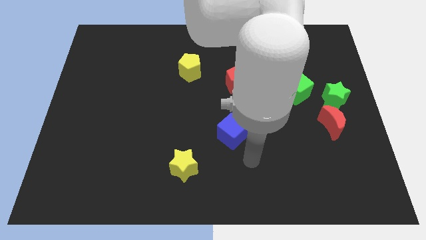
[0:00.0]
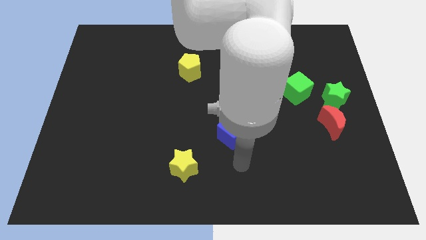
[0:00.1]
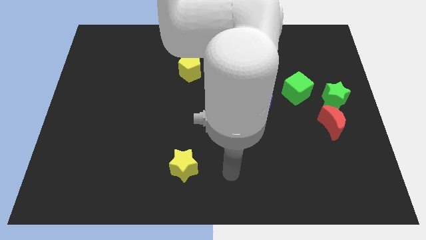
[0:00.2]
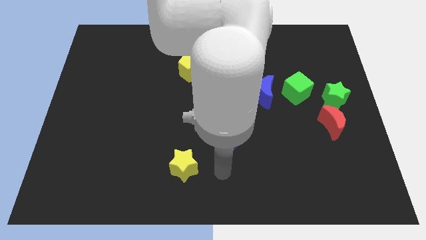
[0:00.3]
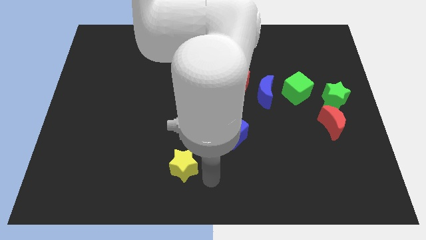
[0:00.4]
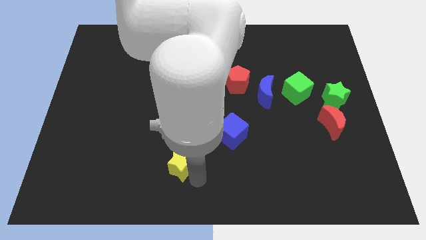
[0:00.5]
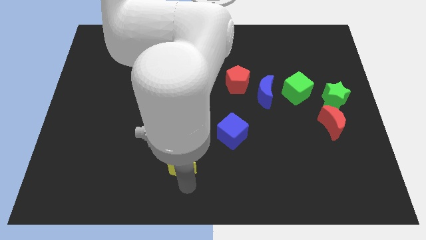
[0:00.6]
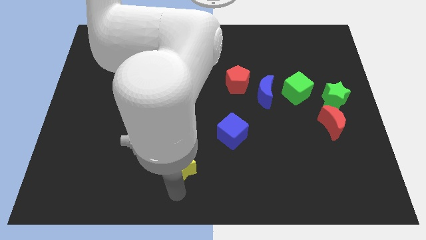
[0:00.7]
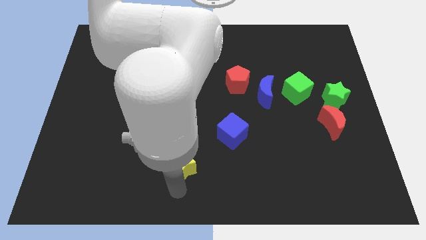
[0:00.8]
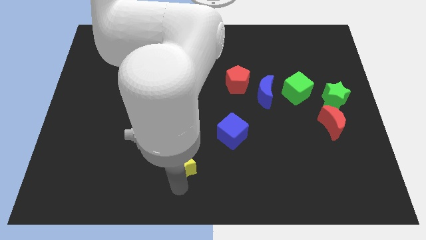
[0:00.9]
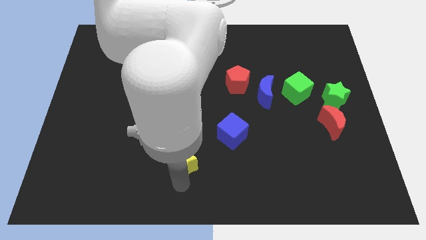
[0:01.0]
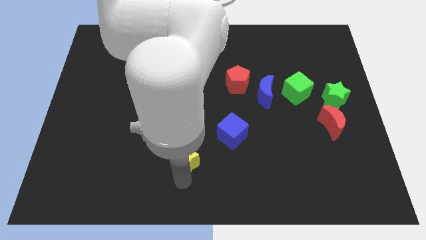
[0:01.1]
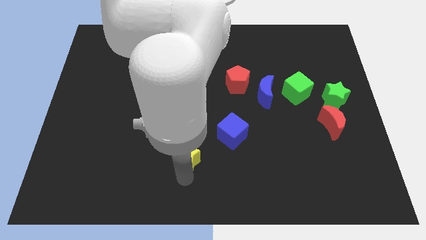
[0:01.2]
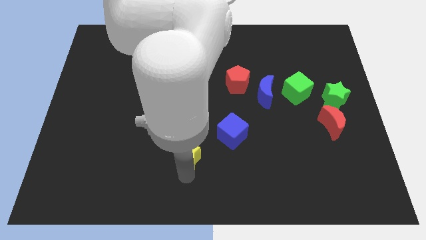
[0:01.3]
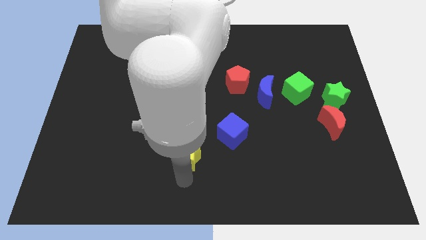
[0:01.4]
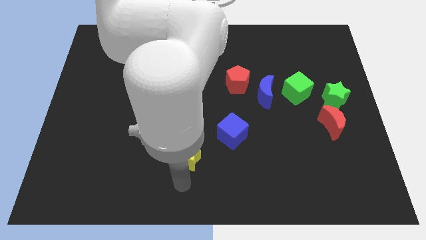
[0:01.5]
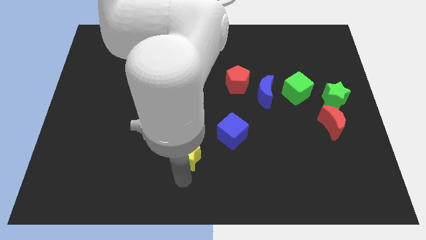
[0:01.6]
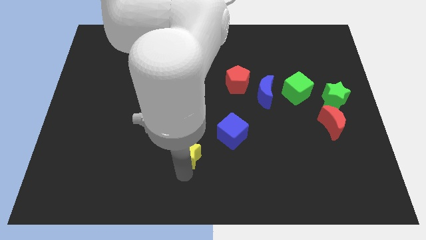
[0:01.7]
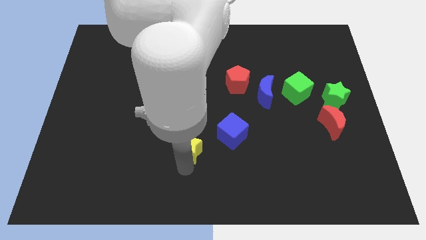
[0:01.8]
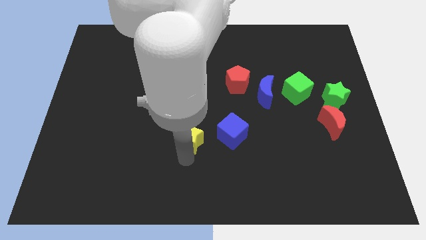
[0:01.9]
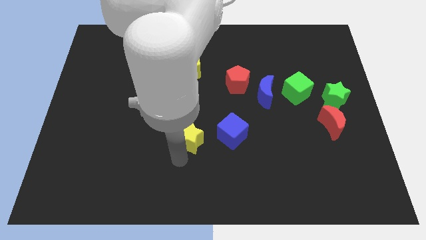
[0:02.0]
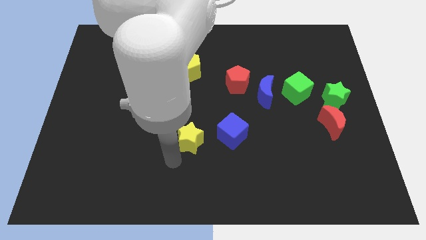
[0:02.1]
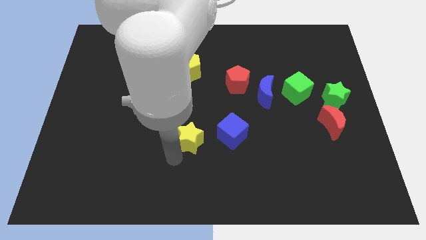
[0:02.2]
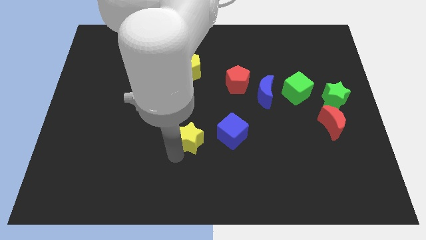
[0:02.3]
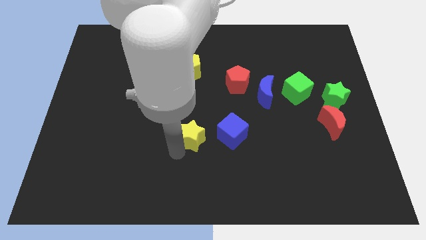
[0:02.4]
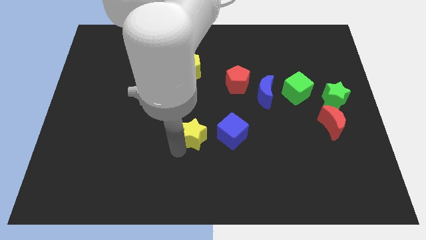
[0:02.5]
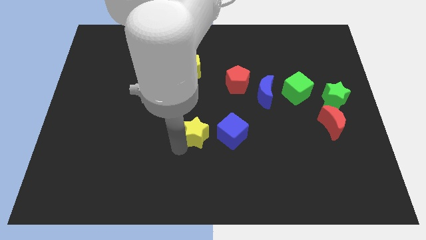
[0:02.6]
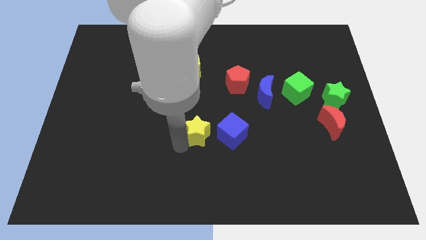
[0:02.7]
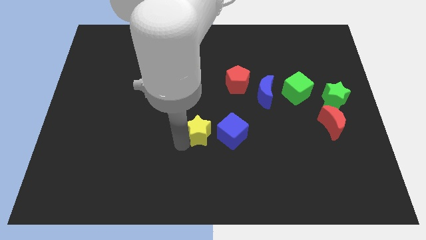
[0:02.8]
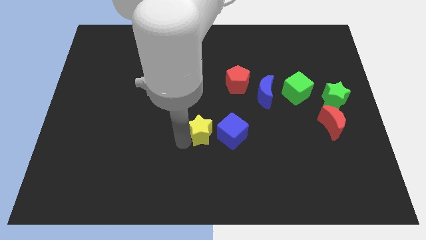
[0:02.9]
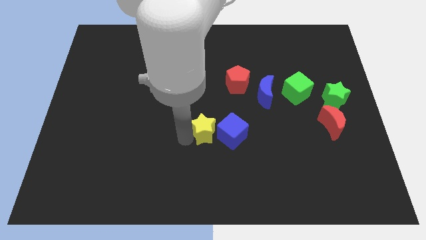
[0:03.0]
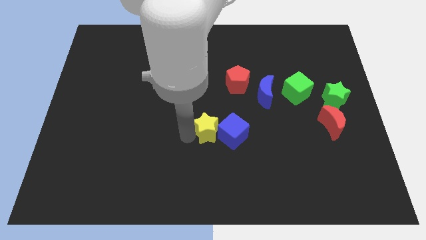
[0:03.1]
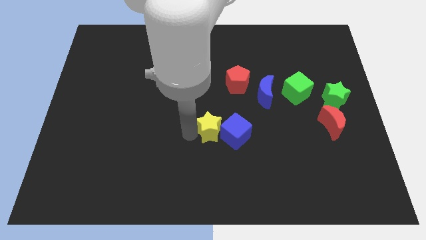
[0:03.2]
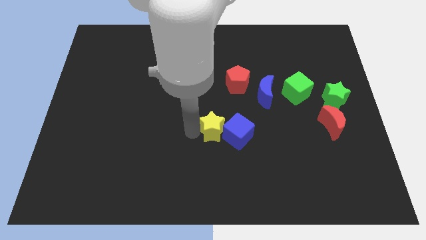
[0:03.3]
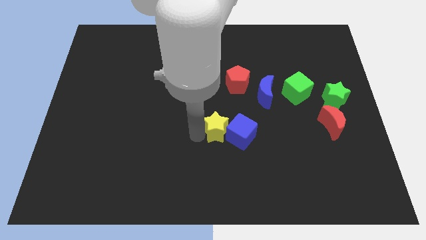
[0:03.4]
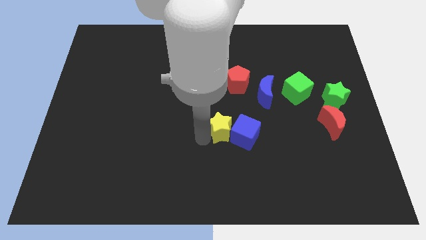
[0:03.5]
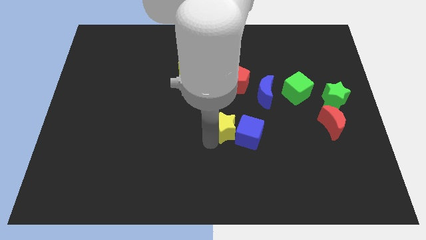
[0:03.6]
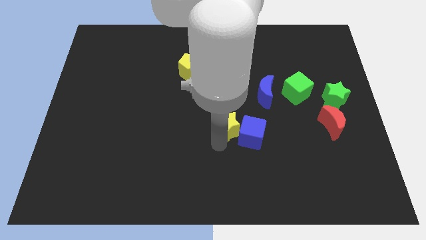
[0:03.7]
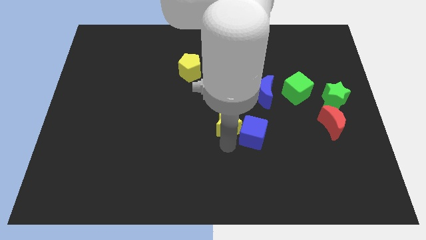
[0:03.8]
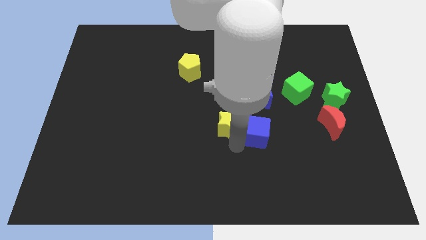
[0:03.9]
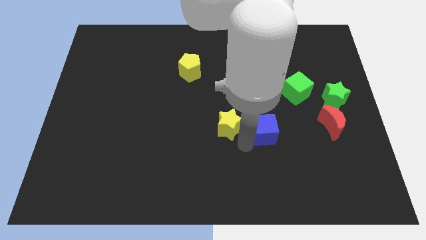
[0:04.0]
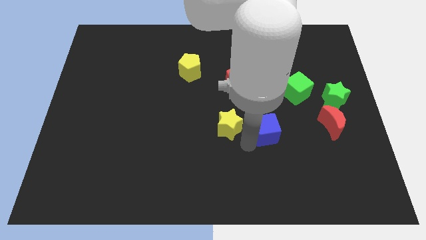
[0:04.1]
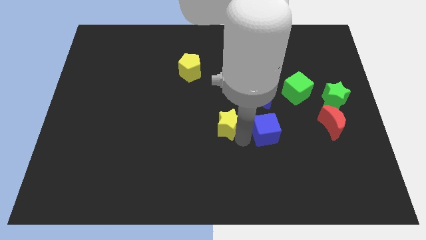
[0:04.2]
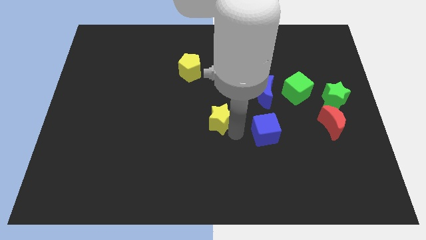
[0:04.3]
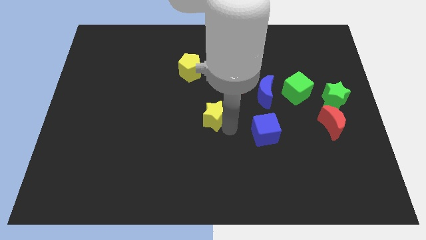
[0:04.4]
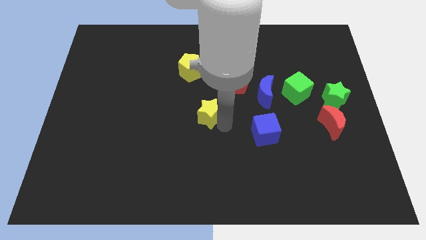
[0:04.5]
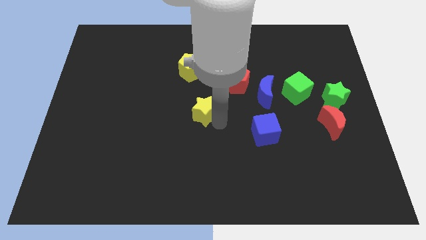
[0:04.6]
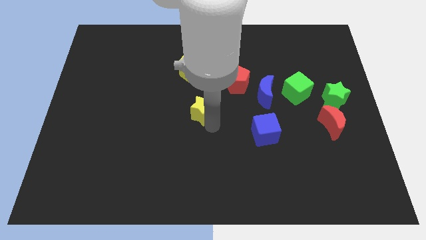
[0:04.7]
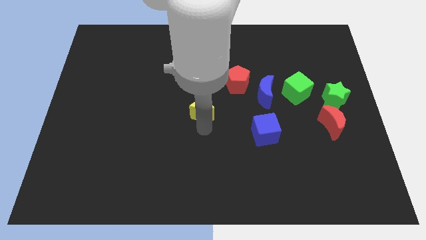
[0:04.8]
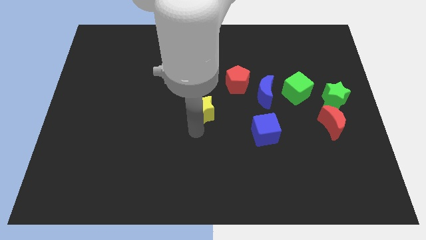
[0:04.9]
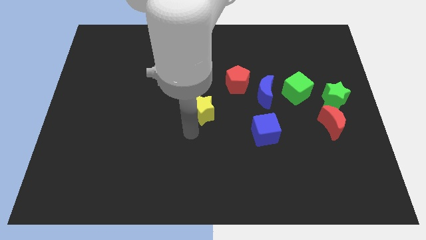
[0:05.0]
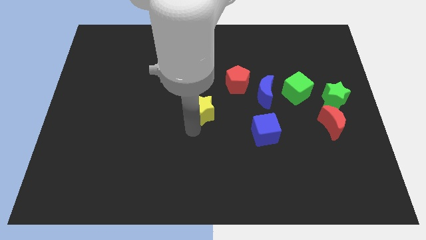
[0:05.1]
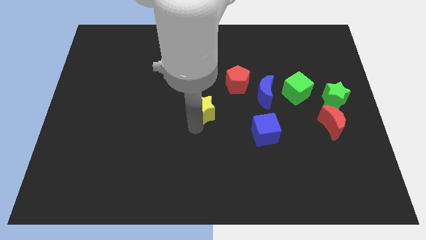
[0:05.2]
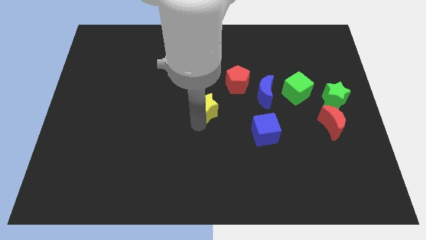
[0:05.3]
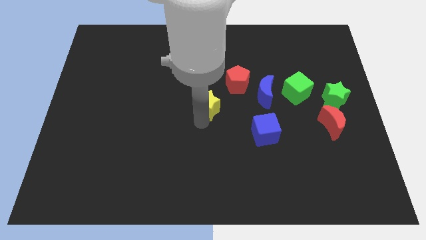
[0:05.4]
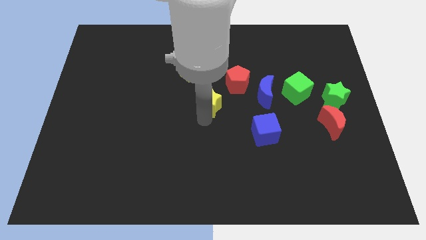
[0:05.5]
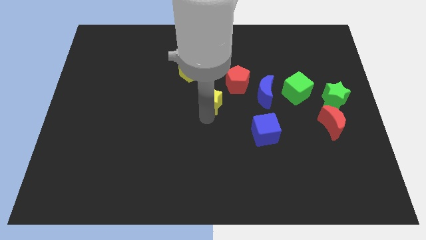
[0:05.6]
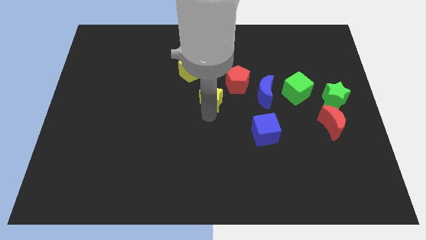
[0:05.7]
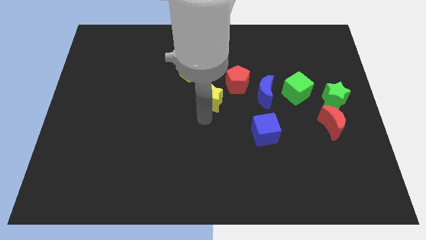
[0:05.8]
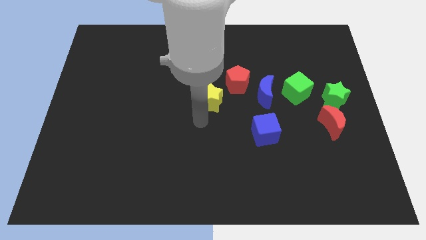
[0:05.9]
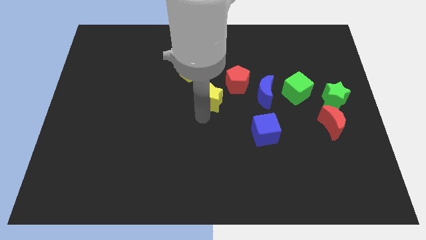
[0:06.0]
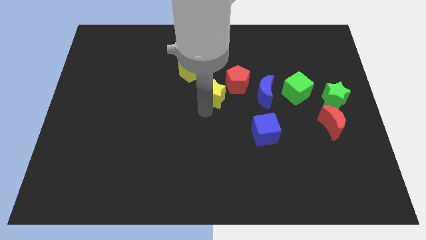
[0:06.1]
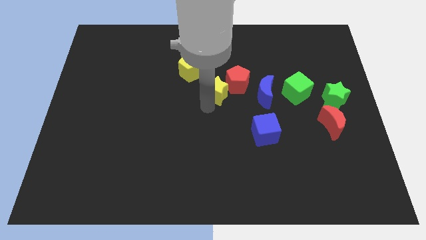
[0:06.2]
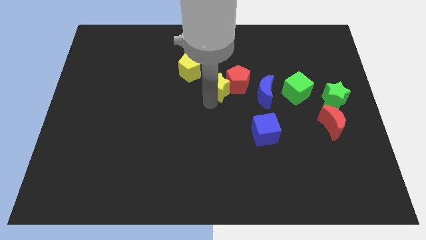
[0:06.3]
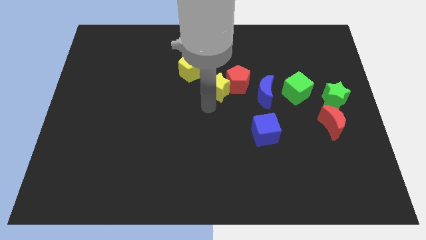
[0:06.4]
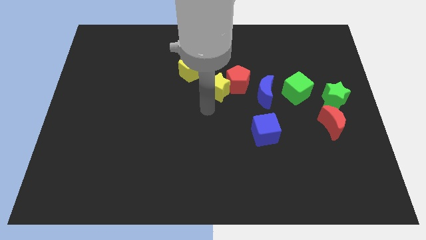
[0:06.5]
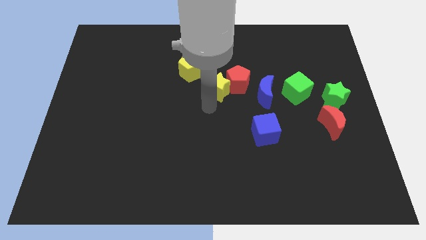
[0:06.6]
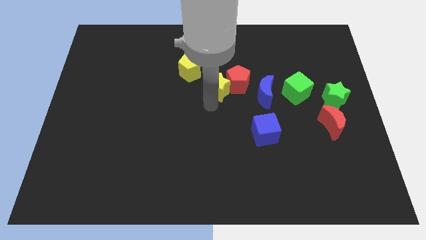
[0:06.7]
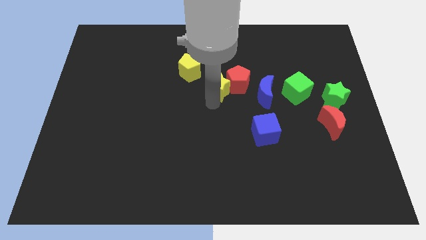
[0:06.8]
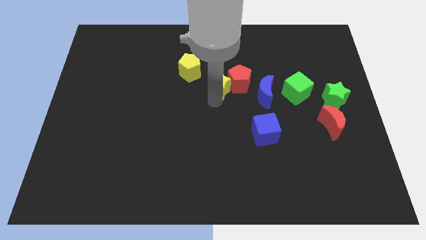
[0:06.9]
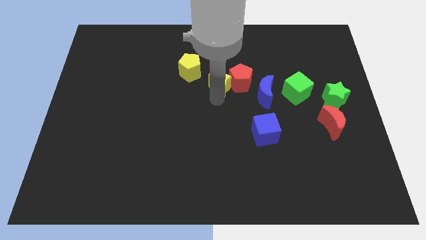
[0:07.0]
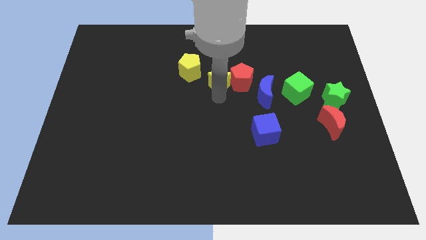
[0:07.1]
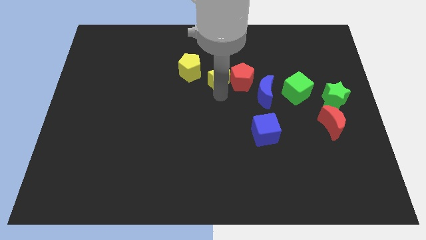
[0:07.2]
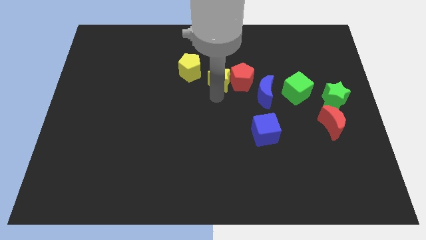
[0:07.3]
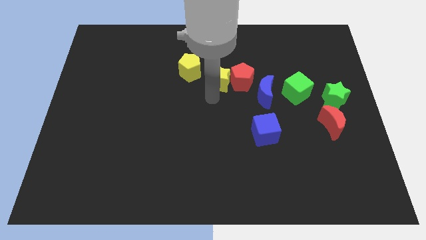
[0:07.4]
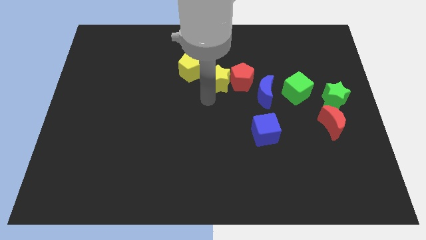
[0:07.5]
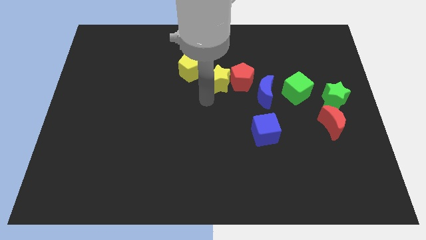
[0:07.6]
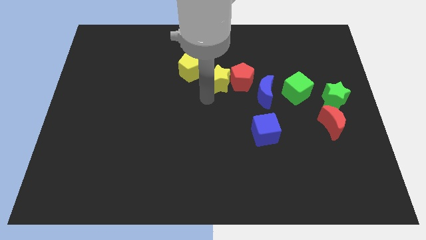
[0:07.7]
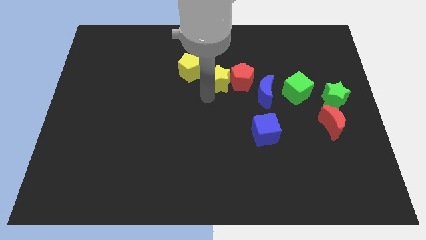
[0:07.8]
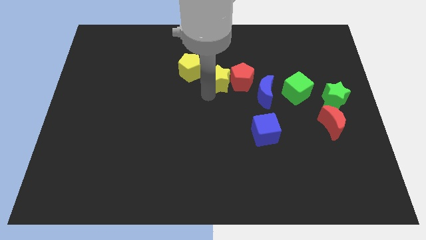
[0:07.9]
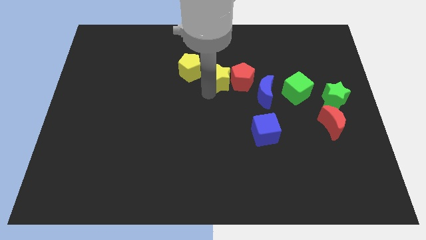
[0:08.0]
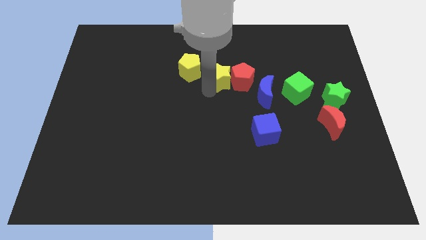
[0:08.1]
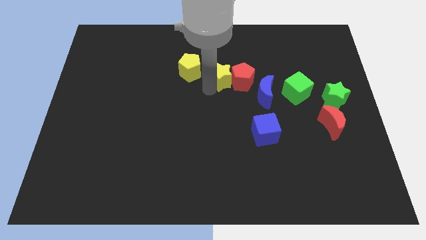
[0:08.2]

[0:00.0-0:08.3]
put the yellow star diagonally up and to the left of the blue moon
